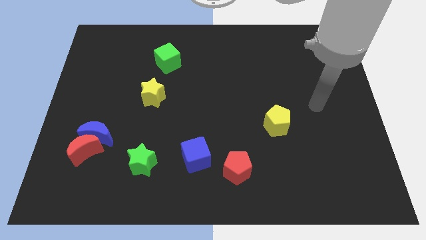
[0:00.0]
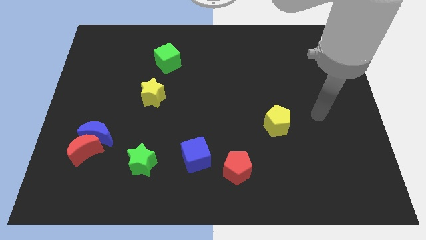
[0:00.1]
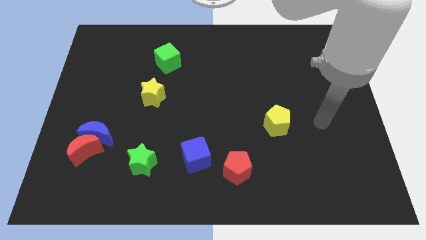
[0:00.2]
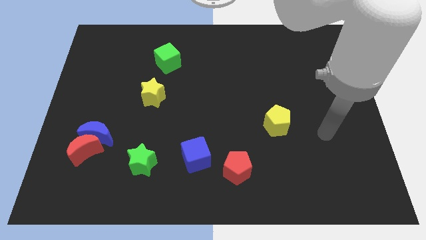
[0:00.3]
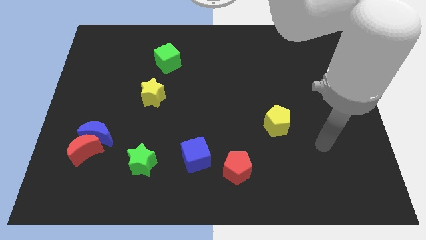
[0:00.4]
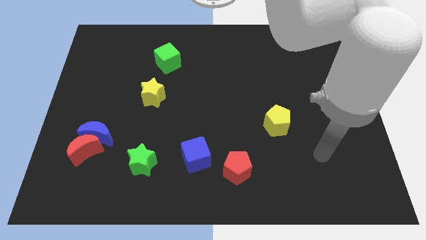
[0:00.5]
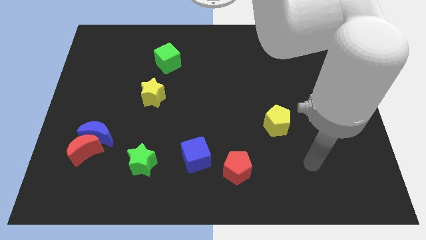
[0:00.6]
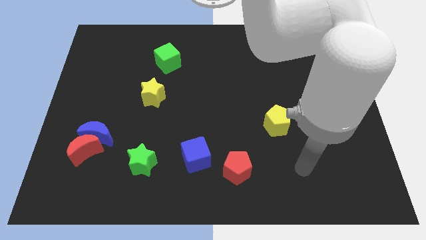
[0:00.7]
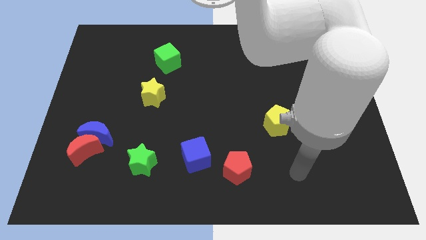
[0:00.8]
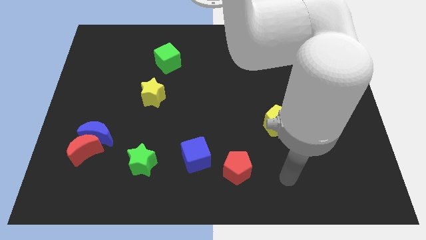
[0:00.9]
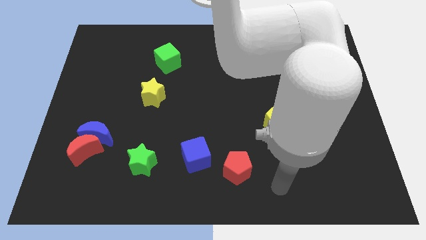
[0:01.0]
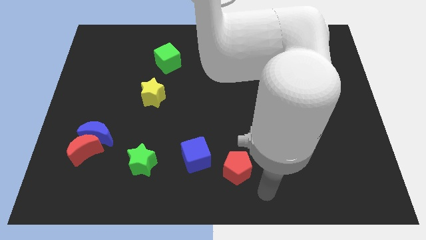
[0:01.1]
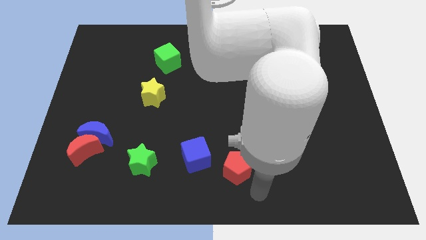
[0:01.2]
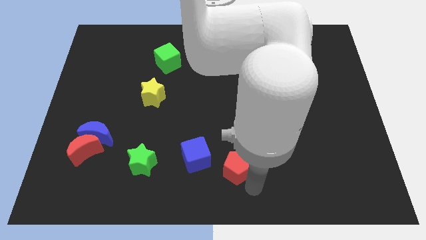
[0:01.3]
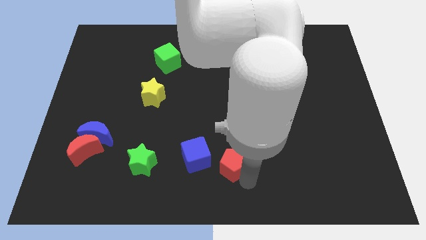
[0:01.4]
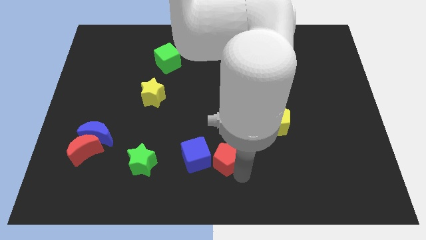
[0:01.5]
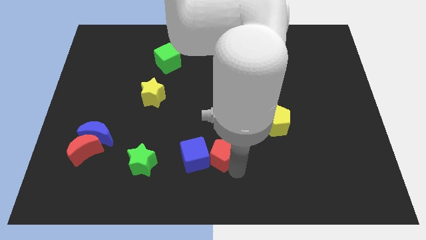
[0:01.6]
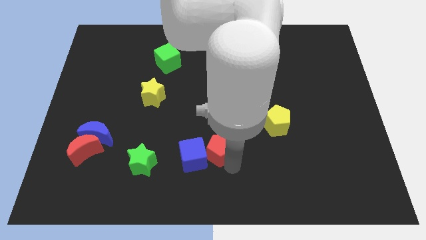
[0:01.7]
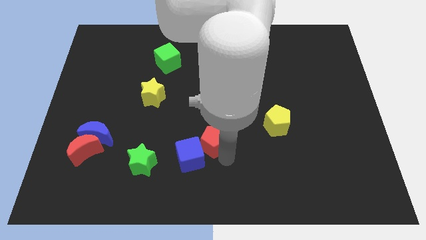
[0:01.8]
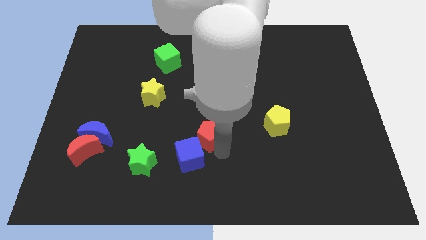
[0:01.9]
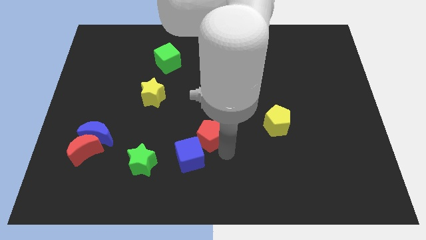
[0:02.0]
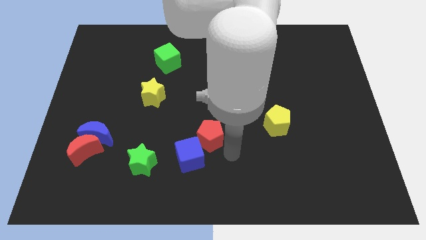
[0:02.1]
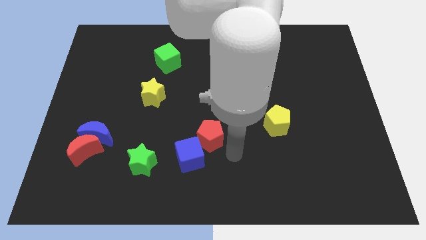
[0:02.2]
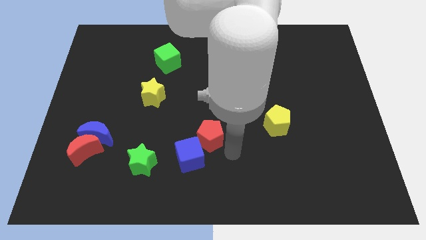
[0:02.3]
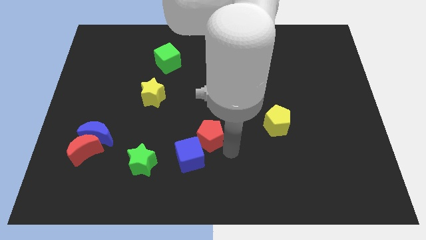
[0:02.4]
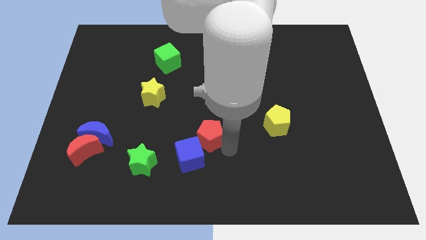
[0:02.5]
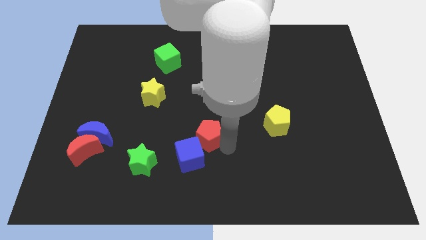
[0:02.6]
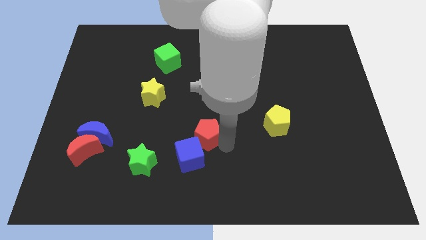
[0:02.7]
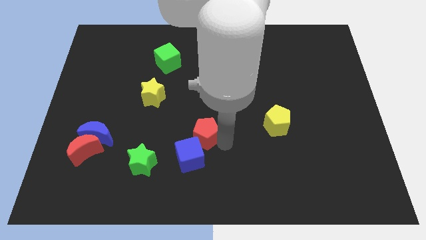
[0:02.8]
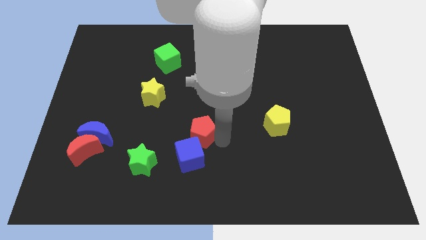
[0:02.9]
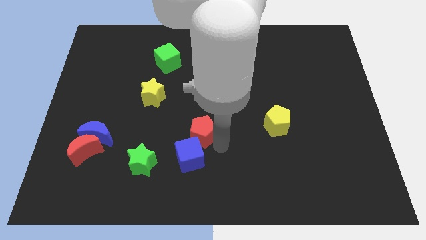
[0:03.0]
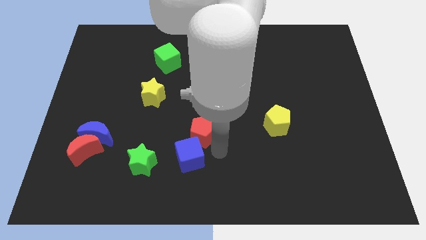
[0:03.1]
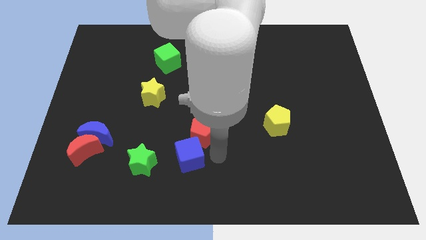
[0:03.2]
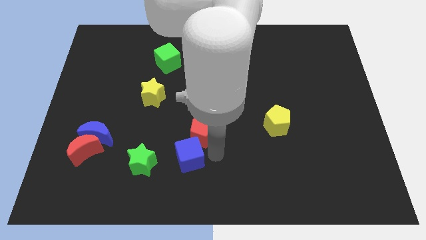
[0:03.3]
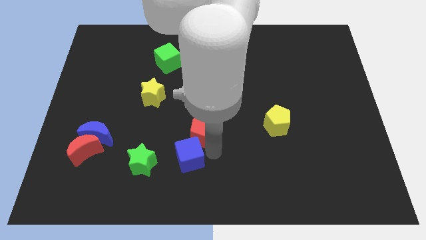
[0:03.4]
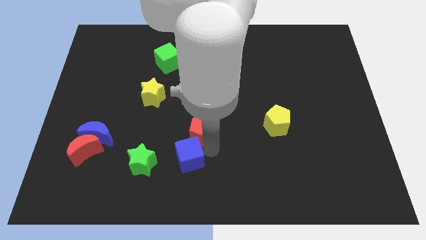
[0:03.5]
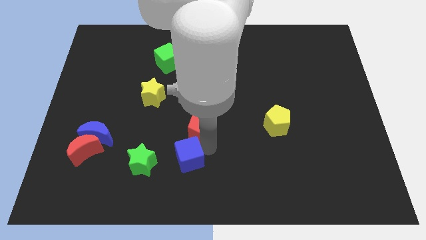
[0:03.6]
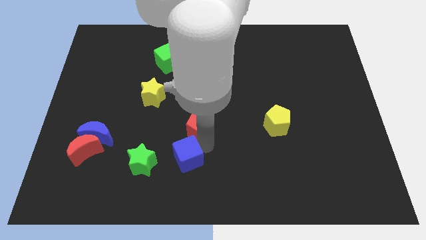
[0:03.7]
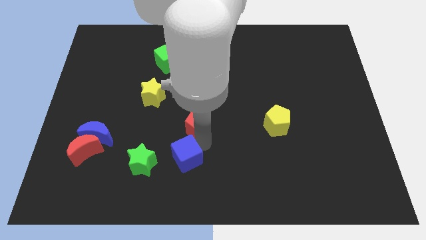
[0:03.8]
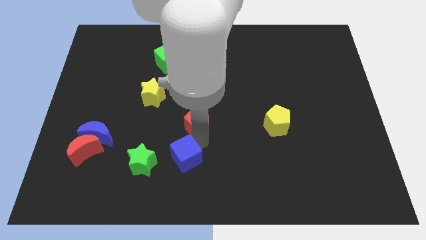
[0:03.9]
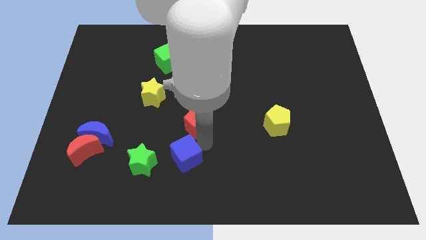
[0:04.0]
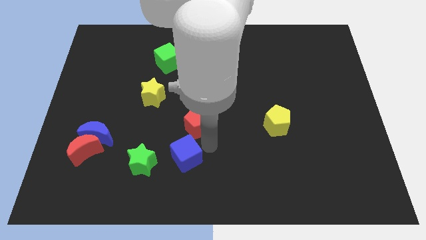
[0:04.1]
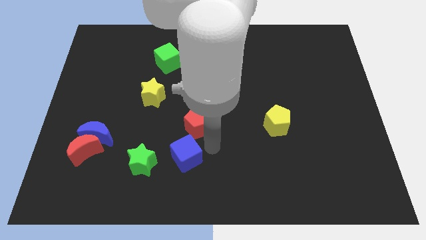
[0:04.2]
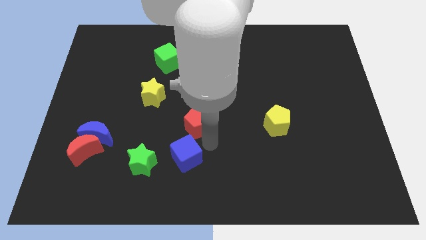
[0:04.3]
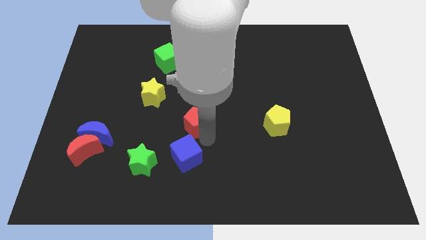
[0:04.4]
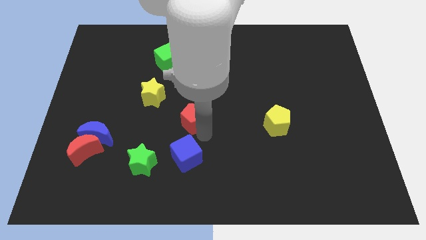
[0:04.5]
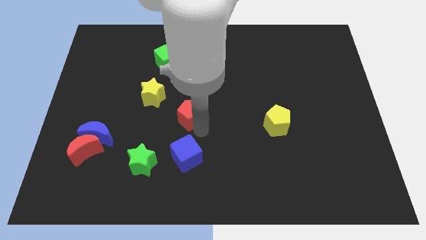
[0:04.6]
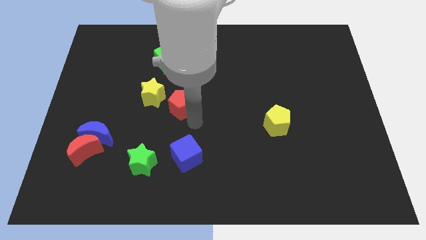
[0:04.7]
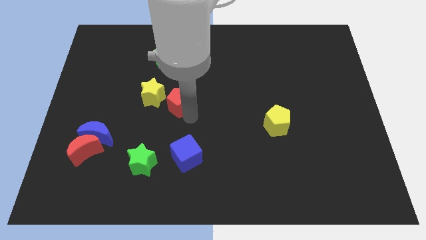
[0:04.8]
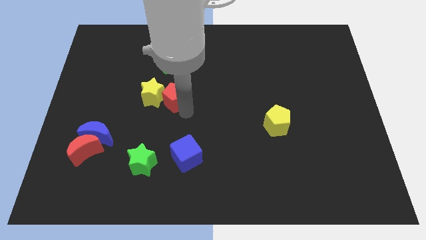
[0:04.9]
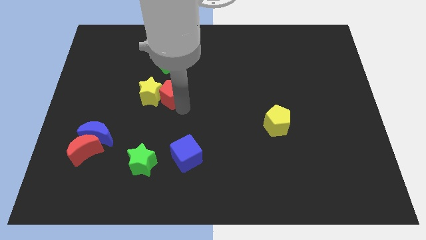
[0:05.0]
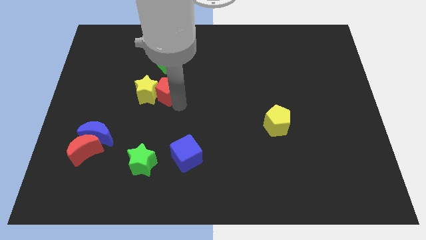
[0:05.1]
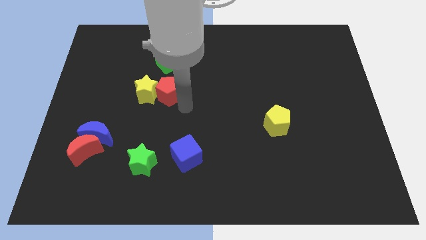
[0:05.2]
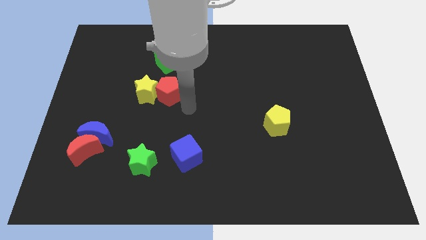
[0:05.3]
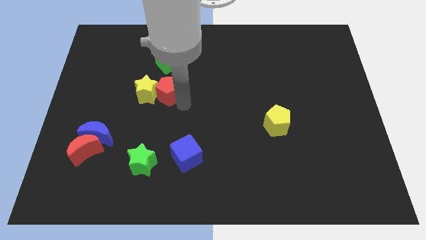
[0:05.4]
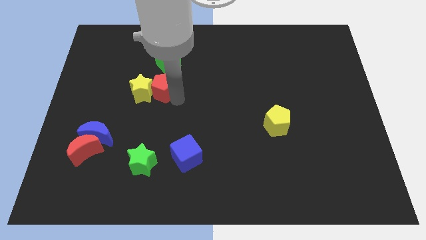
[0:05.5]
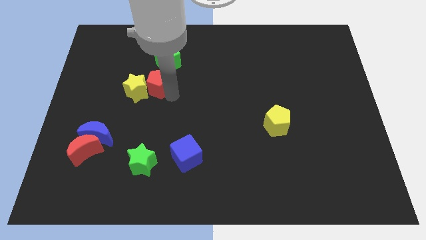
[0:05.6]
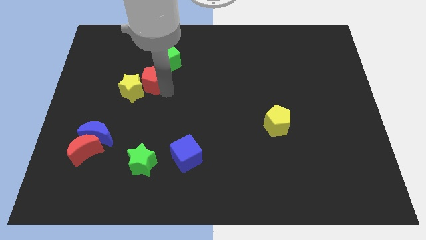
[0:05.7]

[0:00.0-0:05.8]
put the red pentagon to the bottom left of the green cube
